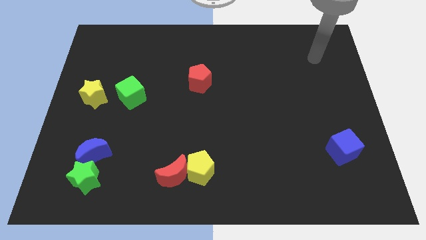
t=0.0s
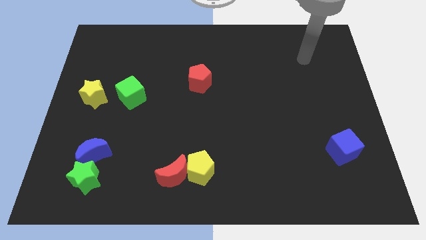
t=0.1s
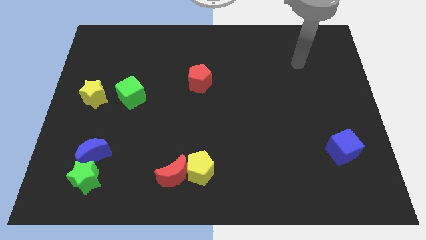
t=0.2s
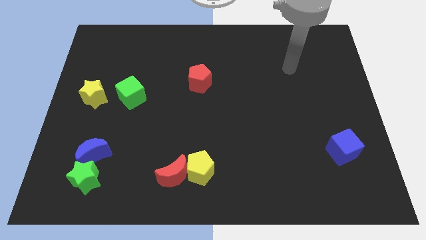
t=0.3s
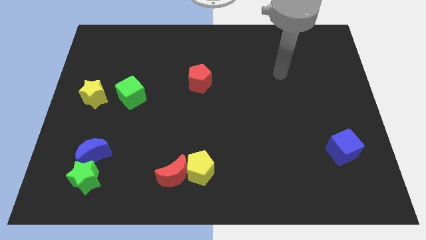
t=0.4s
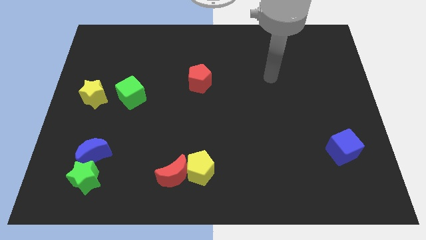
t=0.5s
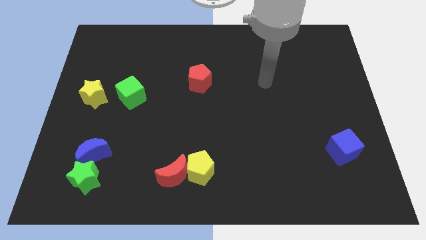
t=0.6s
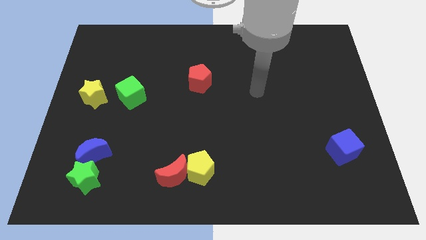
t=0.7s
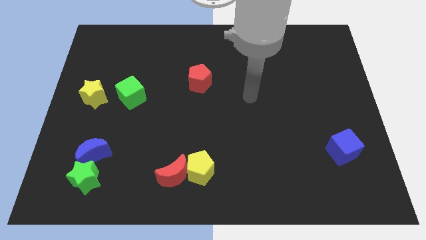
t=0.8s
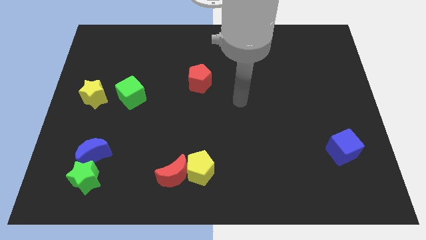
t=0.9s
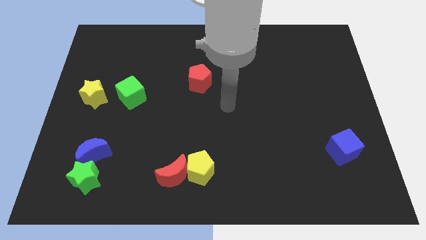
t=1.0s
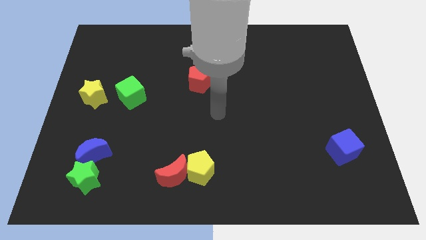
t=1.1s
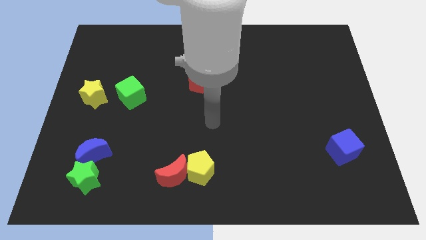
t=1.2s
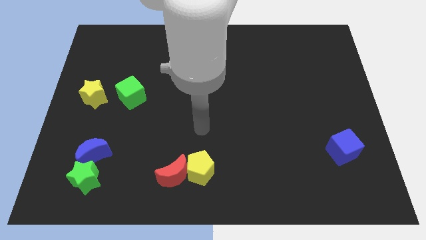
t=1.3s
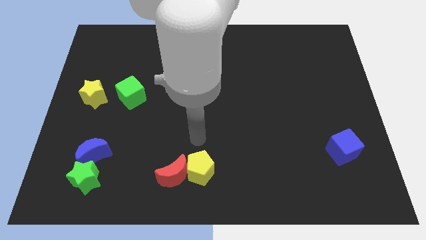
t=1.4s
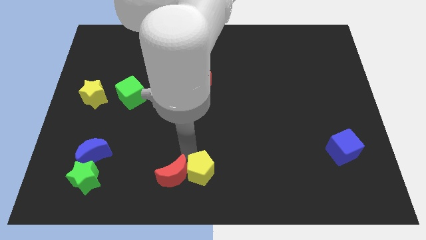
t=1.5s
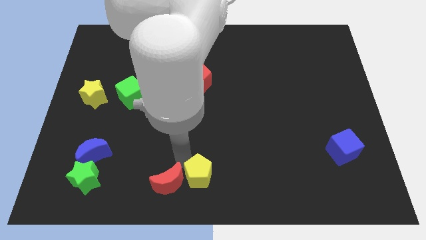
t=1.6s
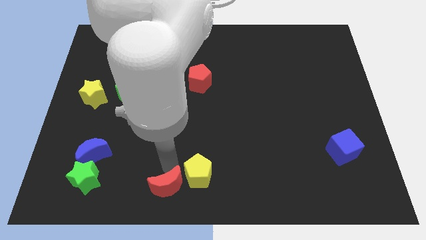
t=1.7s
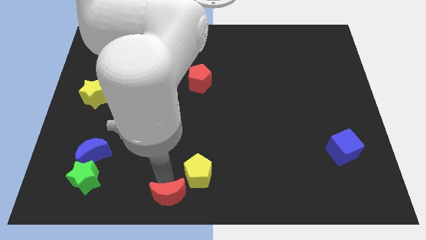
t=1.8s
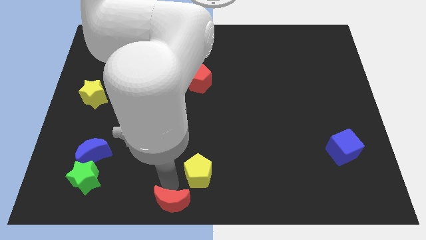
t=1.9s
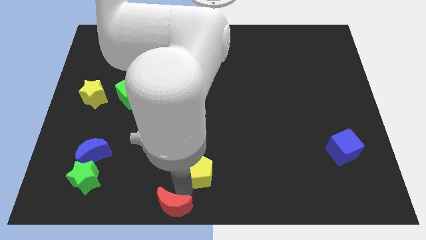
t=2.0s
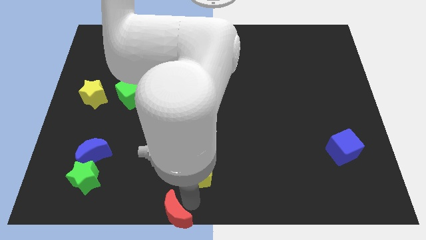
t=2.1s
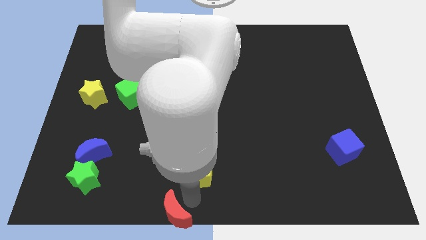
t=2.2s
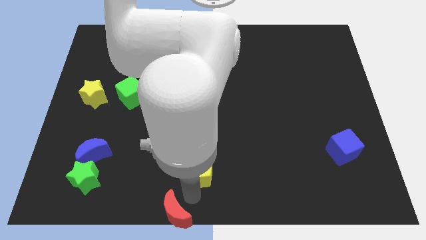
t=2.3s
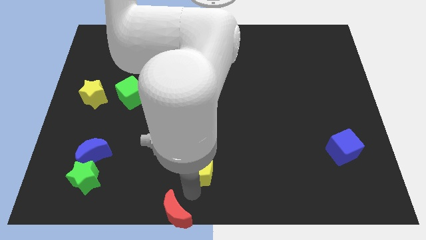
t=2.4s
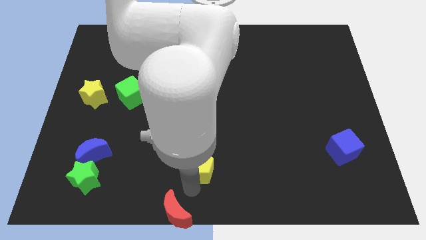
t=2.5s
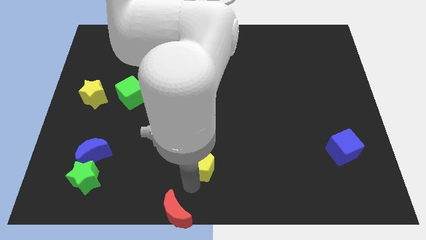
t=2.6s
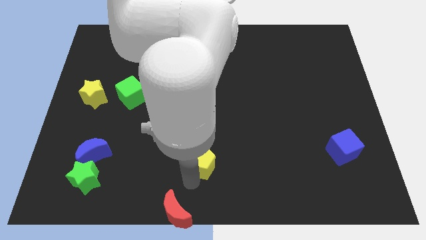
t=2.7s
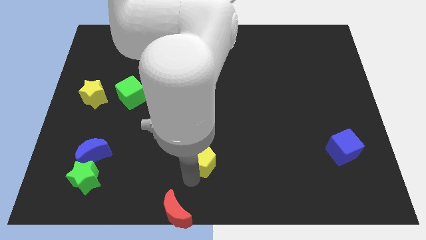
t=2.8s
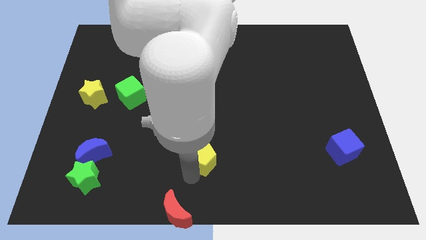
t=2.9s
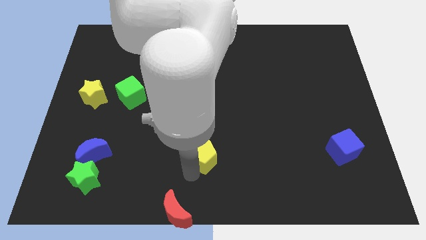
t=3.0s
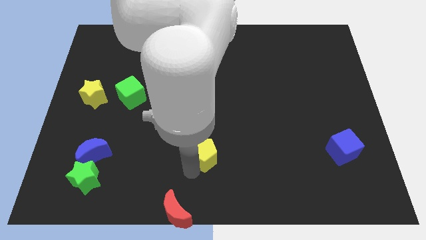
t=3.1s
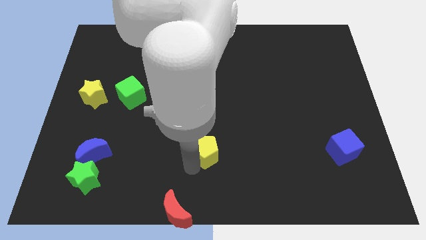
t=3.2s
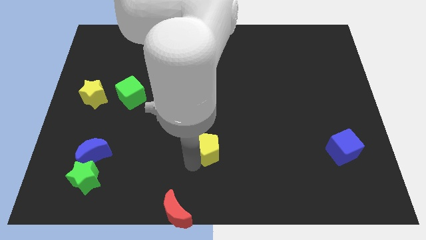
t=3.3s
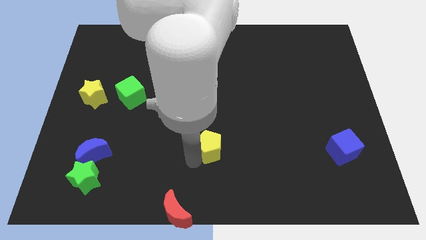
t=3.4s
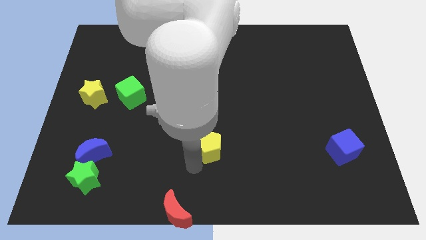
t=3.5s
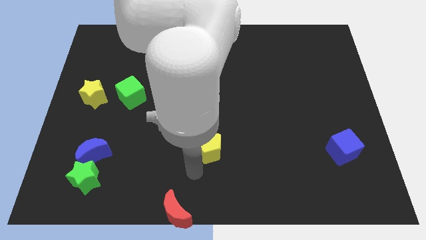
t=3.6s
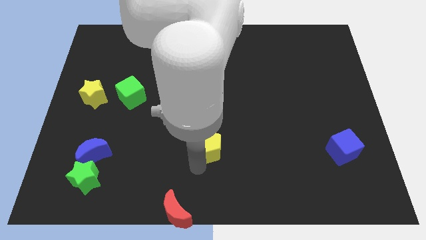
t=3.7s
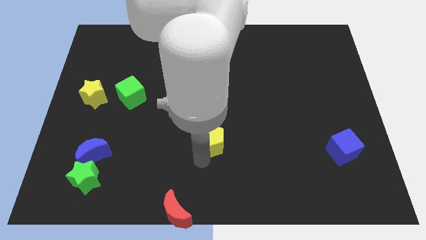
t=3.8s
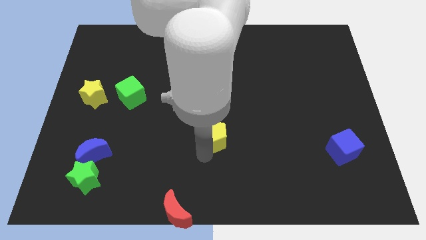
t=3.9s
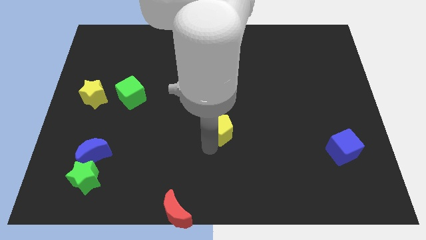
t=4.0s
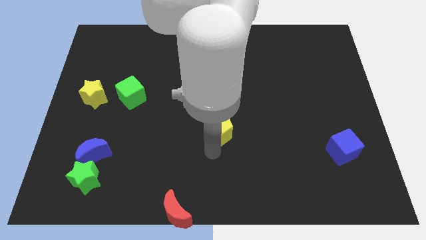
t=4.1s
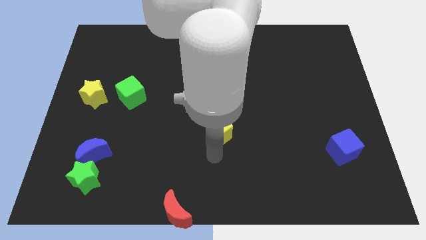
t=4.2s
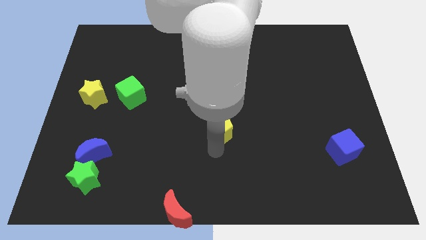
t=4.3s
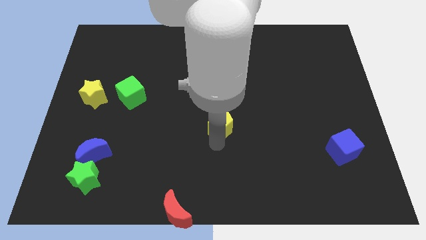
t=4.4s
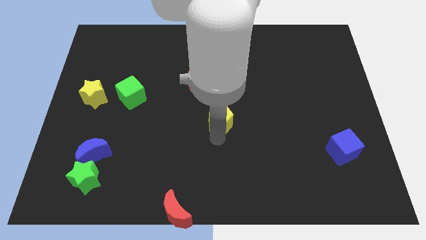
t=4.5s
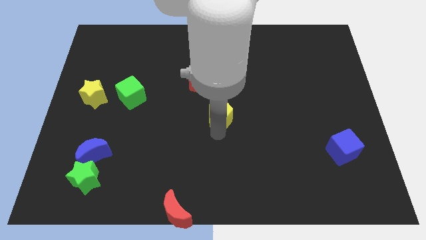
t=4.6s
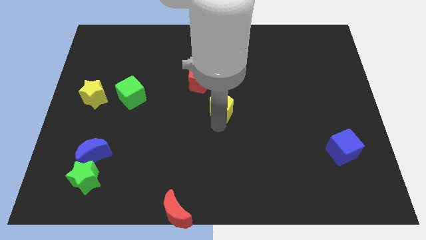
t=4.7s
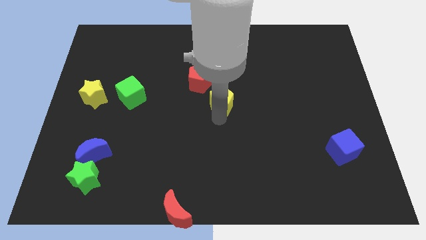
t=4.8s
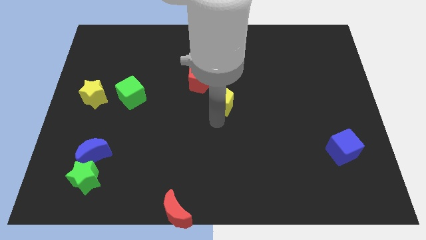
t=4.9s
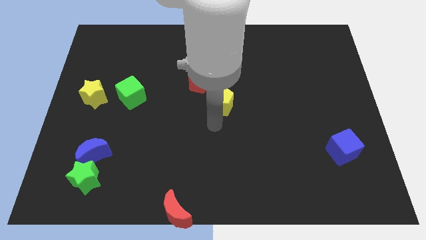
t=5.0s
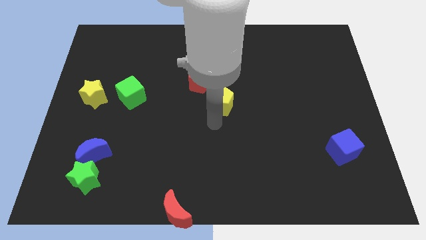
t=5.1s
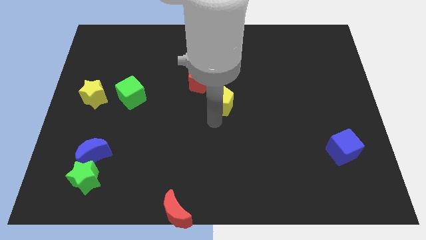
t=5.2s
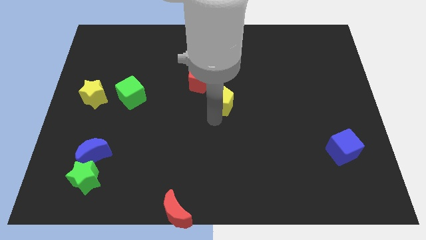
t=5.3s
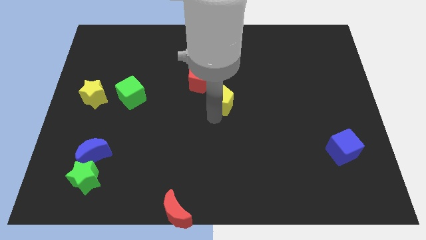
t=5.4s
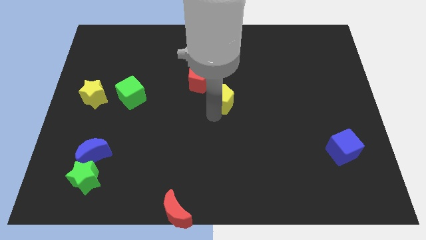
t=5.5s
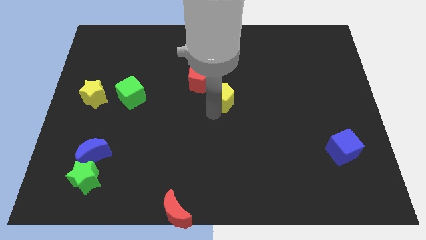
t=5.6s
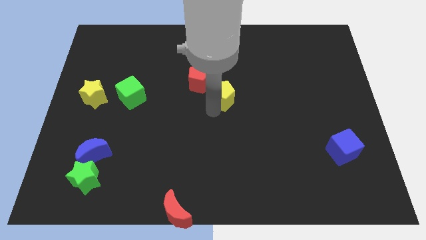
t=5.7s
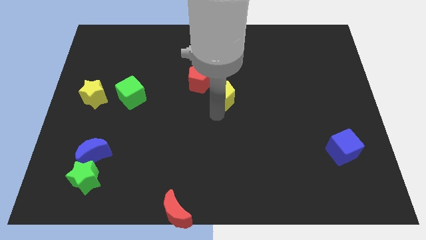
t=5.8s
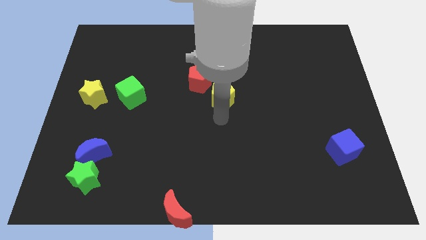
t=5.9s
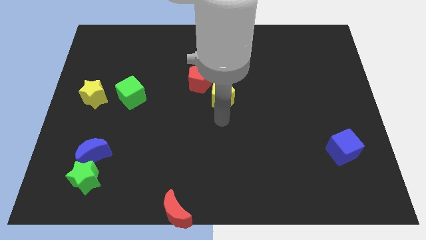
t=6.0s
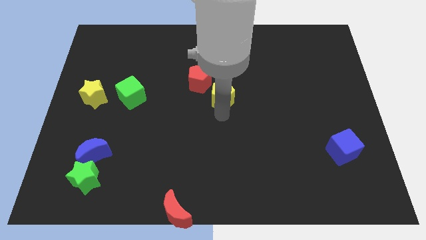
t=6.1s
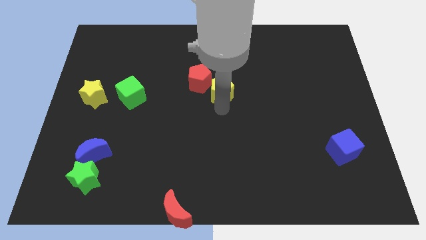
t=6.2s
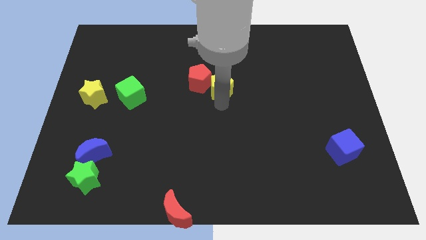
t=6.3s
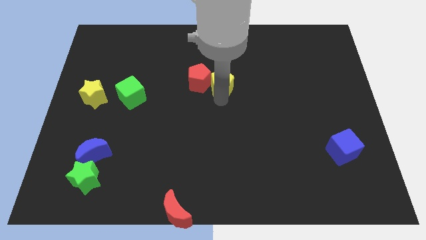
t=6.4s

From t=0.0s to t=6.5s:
push the yellow pentagon to the top right side of the red pentagon
